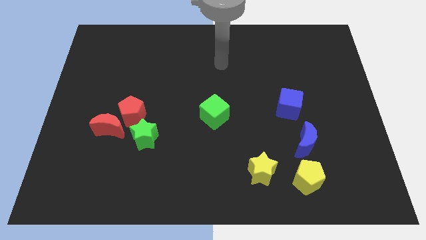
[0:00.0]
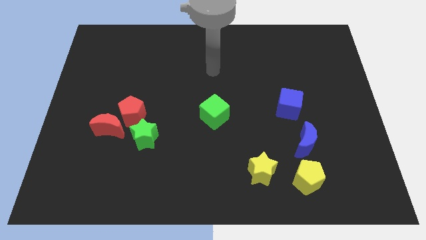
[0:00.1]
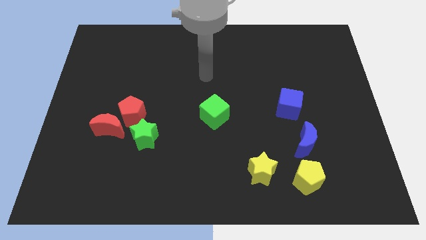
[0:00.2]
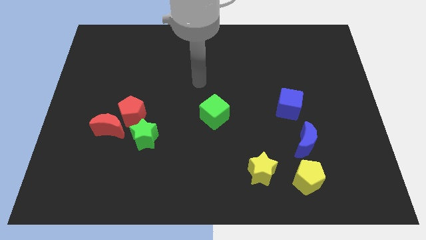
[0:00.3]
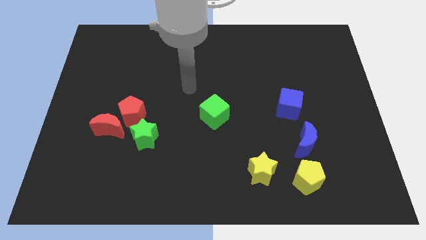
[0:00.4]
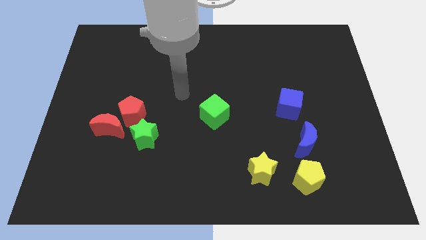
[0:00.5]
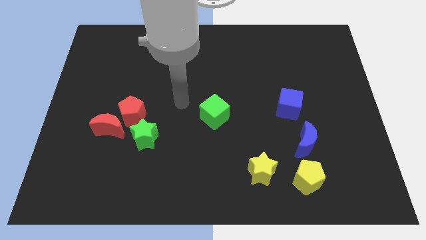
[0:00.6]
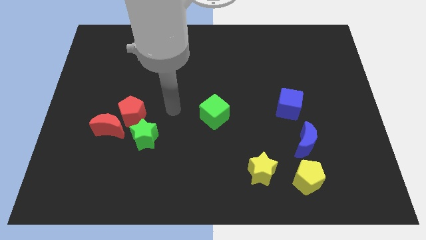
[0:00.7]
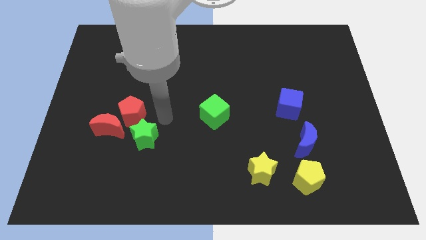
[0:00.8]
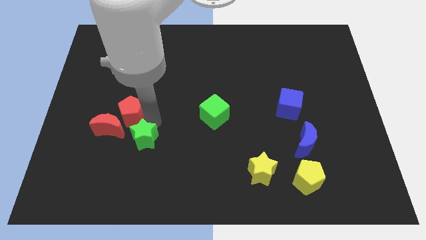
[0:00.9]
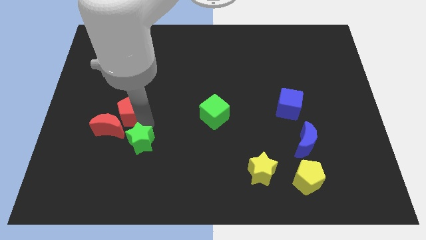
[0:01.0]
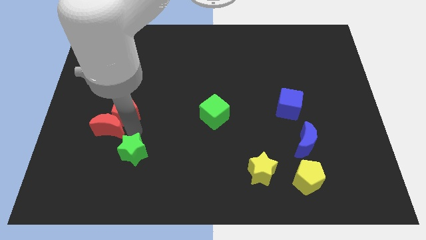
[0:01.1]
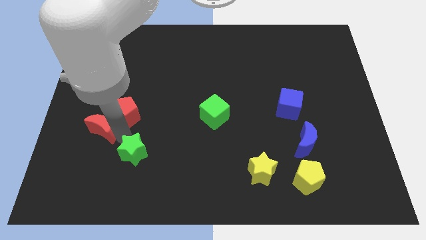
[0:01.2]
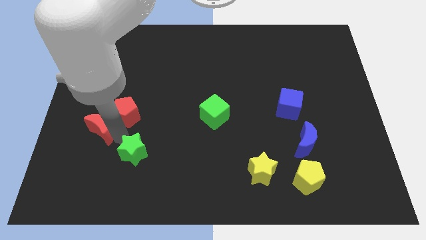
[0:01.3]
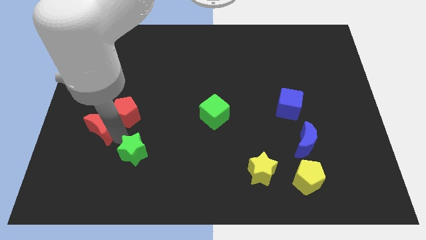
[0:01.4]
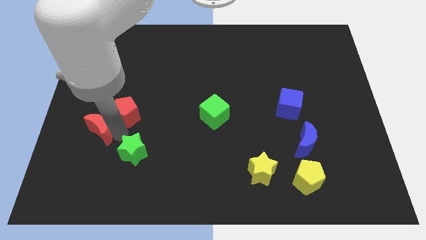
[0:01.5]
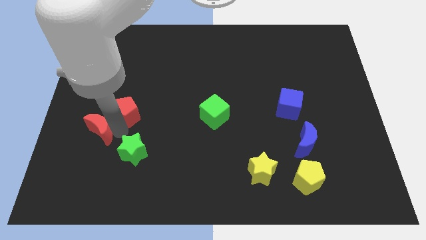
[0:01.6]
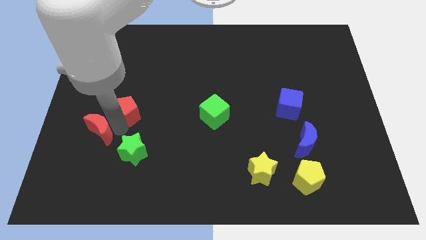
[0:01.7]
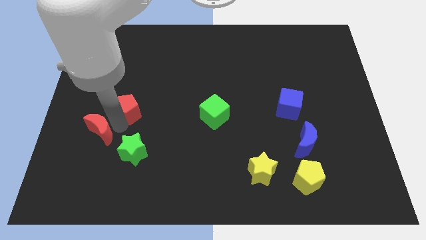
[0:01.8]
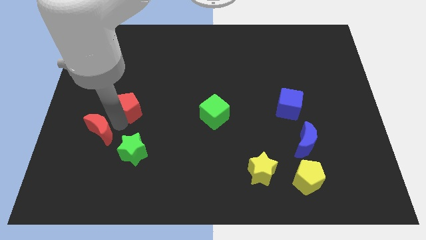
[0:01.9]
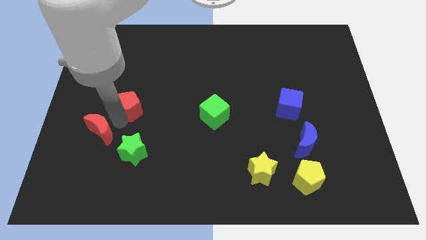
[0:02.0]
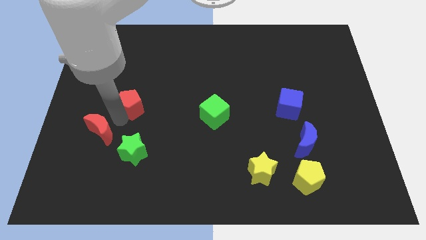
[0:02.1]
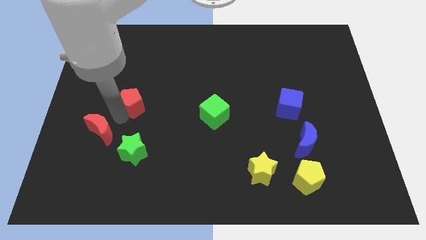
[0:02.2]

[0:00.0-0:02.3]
pull the red pentagon apart from the red moon and green star

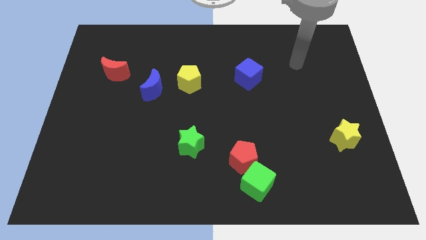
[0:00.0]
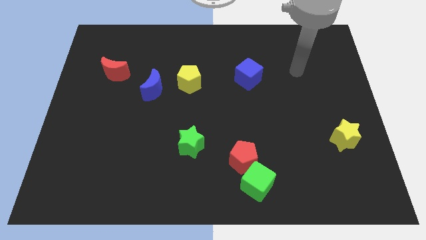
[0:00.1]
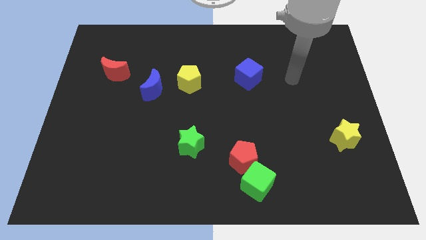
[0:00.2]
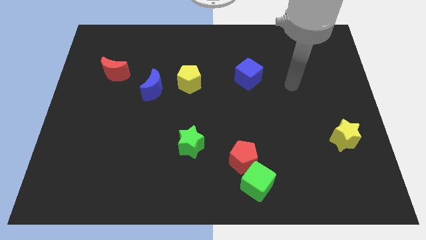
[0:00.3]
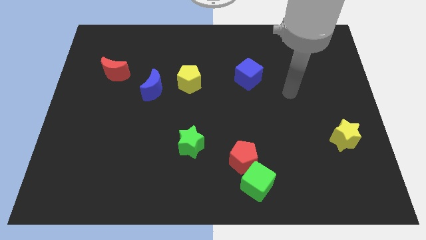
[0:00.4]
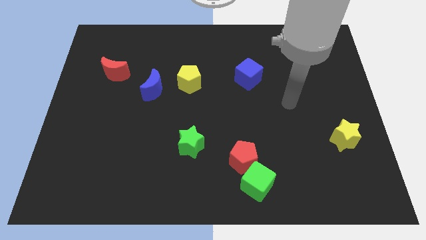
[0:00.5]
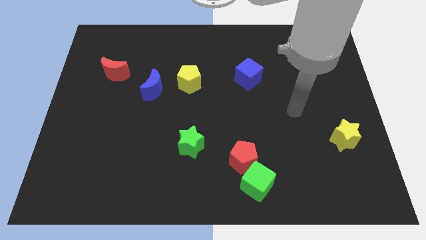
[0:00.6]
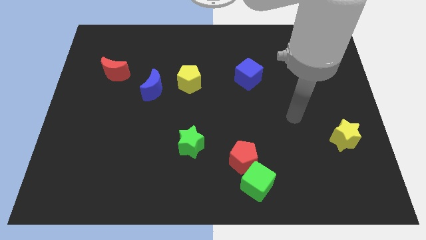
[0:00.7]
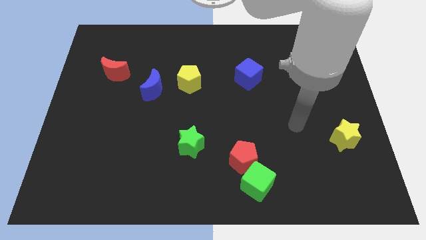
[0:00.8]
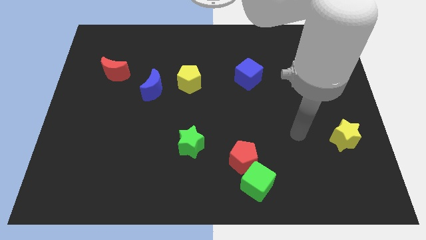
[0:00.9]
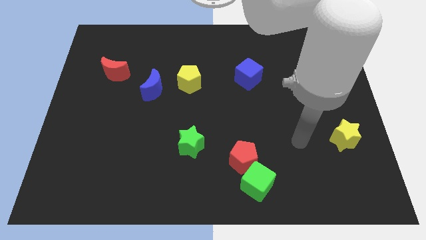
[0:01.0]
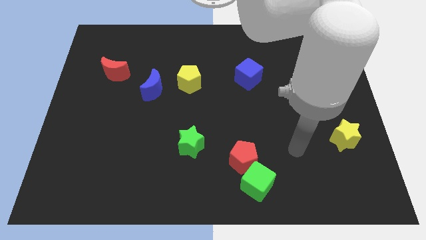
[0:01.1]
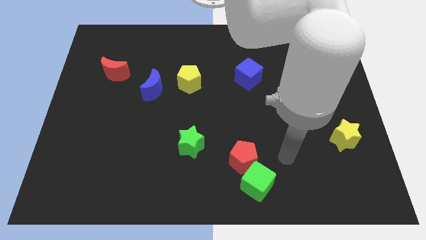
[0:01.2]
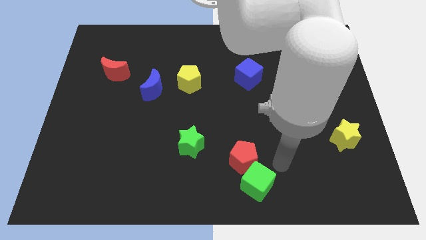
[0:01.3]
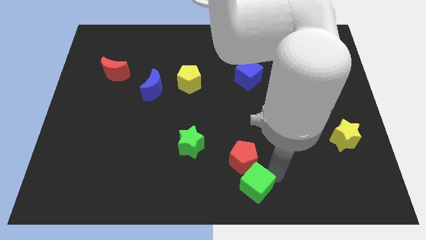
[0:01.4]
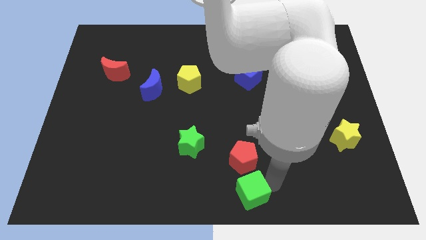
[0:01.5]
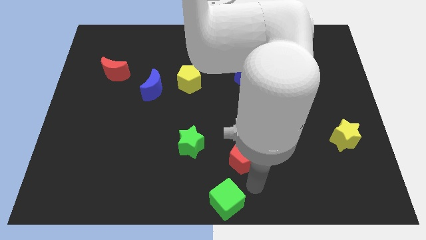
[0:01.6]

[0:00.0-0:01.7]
pull the red pentagon apart from the green cube

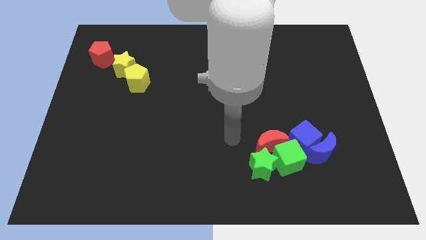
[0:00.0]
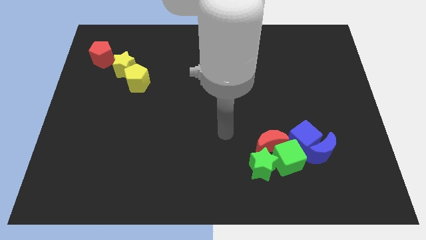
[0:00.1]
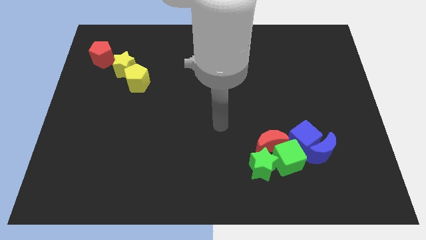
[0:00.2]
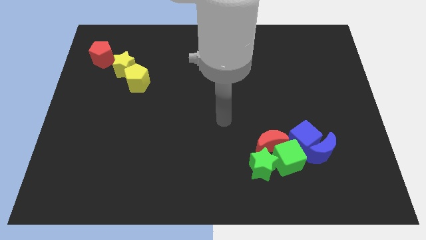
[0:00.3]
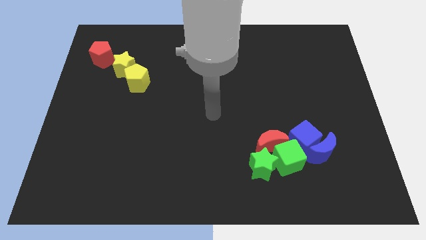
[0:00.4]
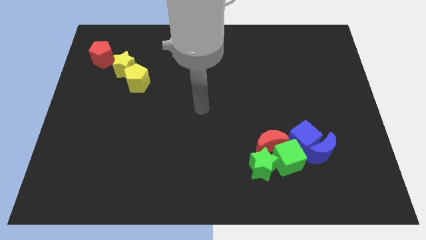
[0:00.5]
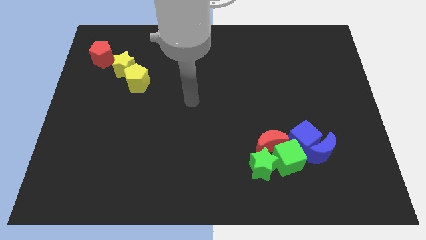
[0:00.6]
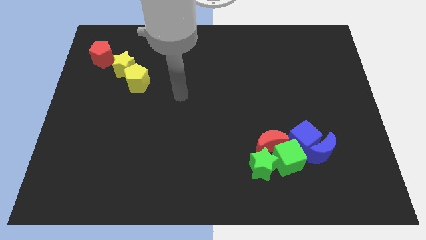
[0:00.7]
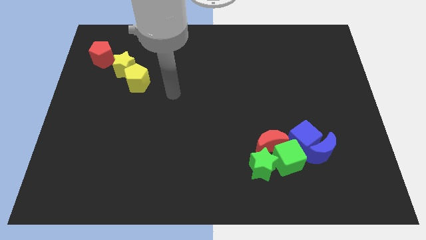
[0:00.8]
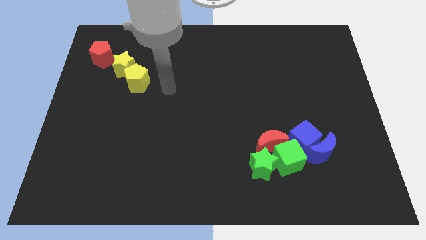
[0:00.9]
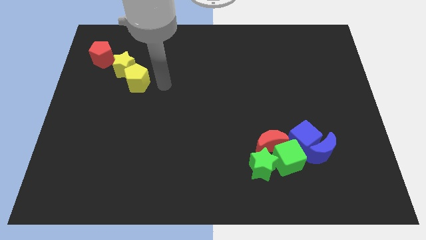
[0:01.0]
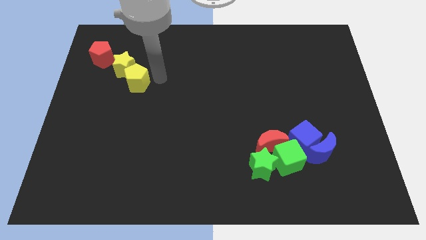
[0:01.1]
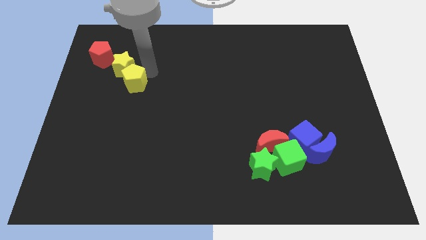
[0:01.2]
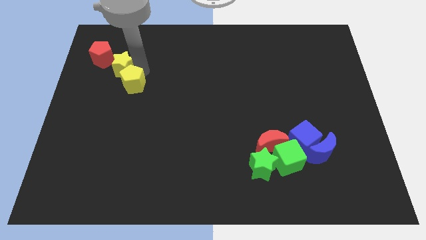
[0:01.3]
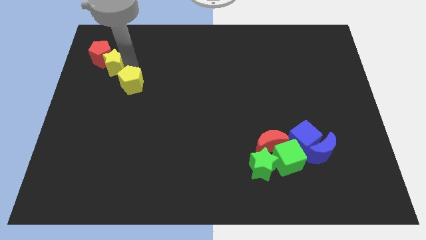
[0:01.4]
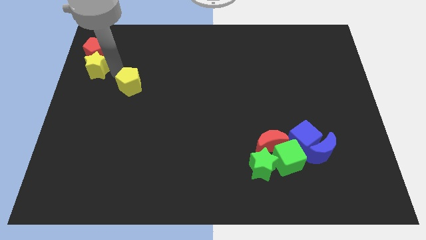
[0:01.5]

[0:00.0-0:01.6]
move the yellow pentagon away from the yellow star

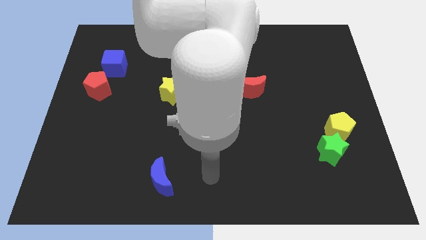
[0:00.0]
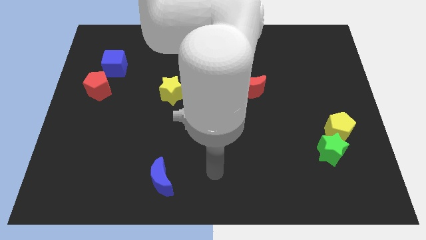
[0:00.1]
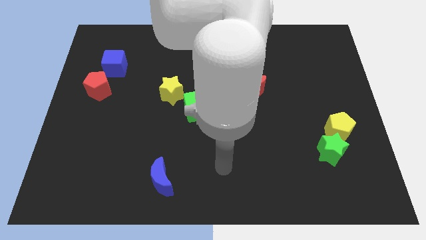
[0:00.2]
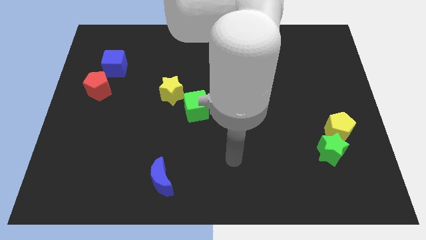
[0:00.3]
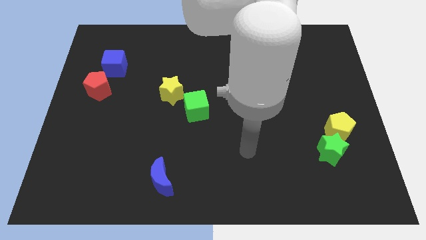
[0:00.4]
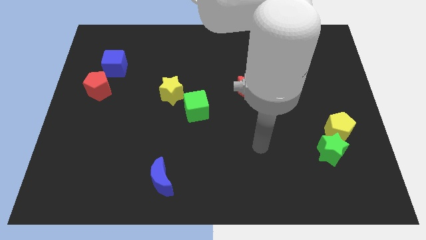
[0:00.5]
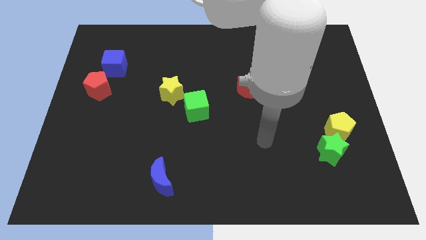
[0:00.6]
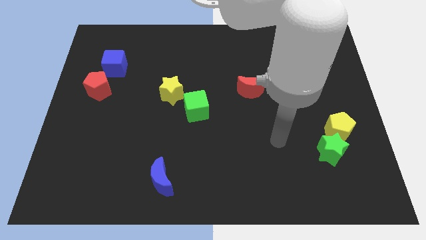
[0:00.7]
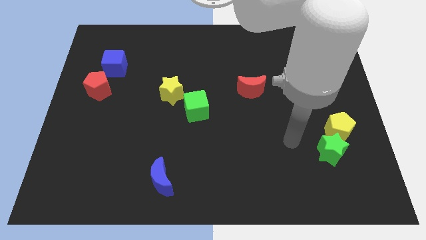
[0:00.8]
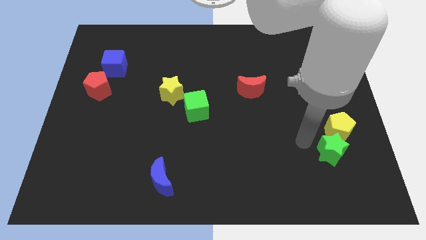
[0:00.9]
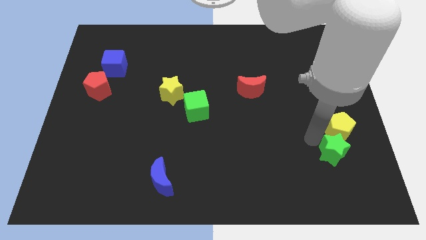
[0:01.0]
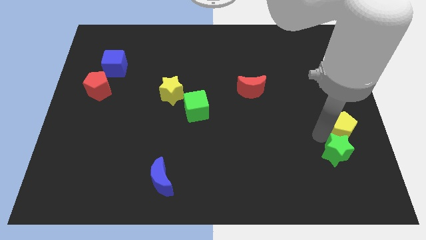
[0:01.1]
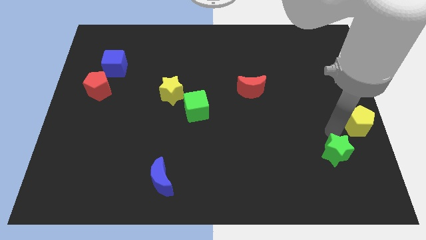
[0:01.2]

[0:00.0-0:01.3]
pull the green star apart from the yellow pentagon

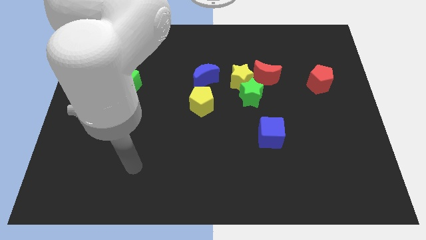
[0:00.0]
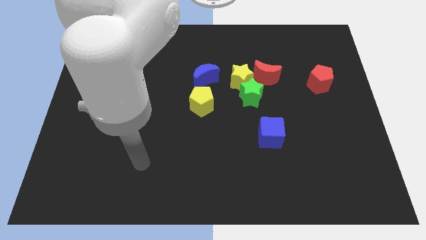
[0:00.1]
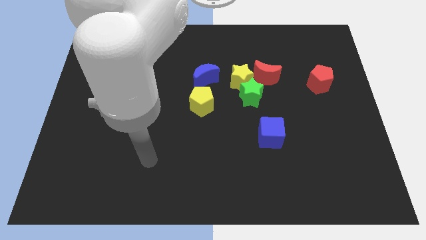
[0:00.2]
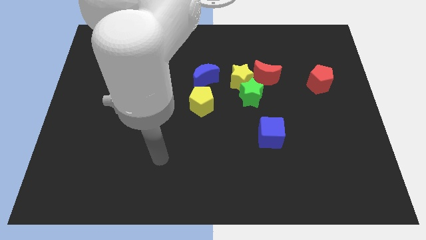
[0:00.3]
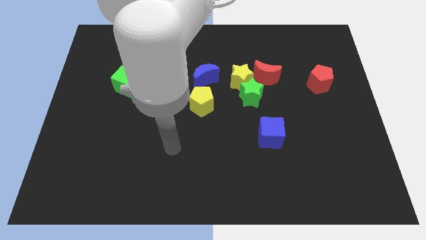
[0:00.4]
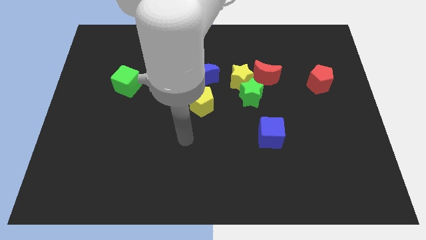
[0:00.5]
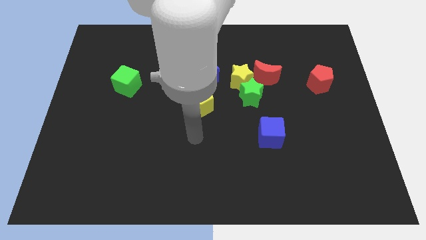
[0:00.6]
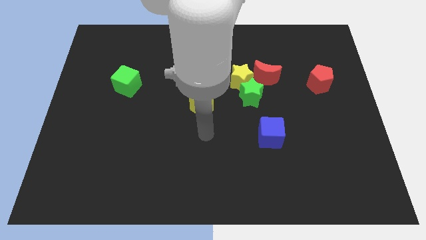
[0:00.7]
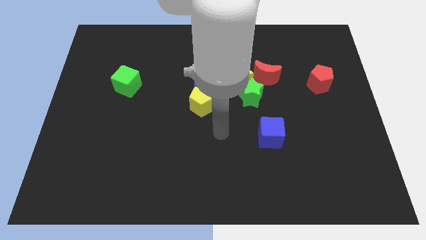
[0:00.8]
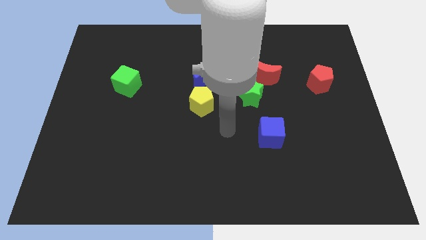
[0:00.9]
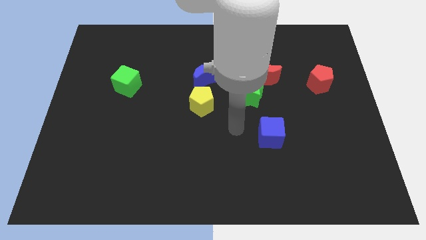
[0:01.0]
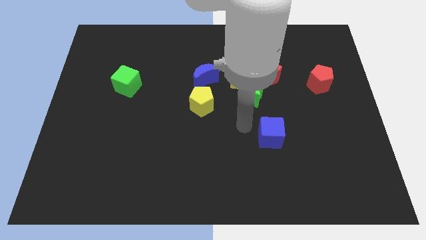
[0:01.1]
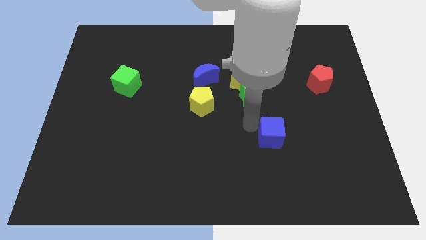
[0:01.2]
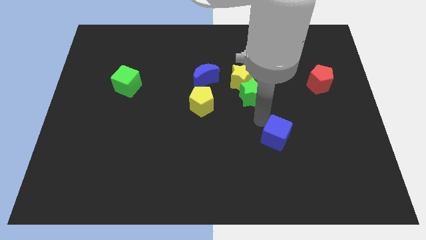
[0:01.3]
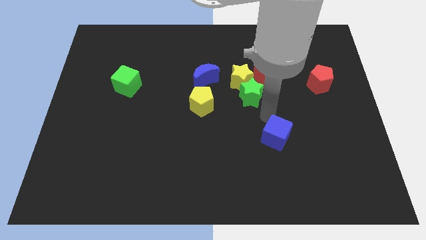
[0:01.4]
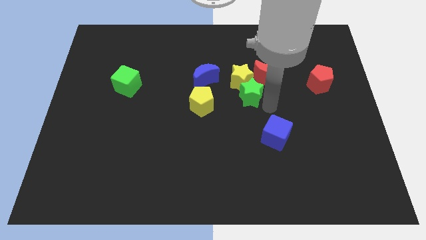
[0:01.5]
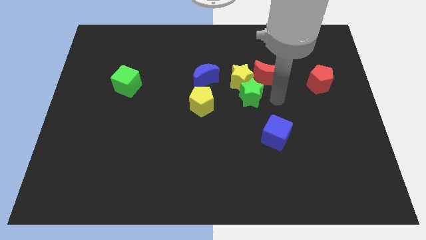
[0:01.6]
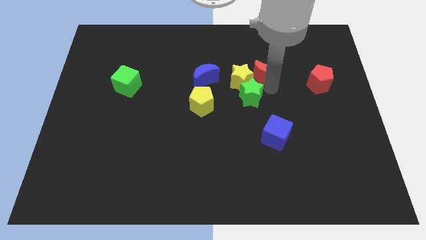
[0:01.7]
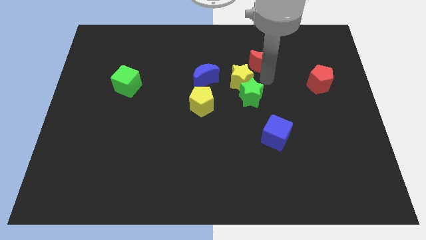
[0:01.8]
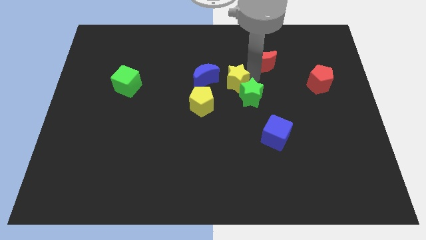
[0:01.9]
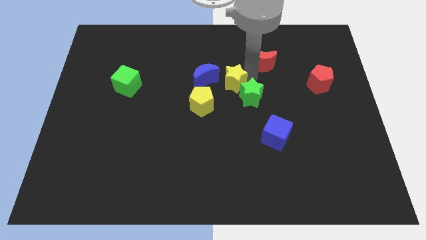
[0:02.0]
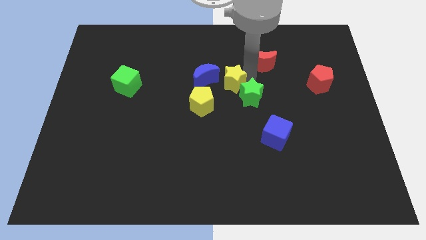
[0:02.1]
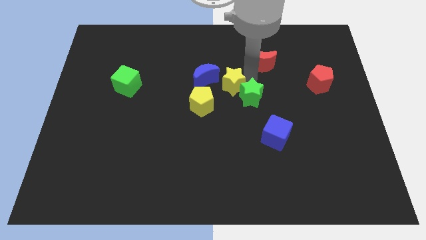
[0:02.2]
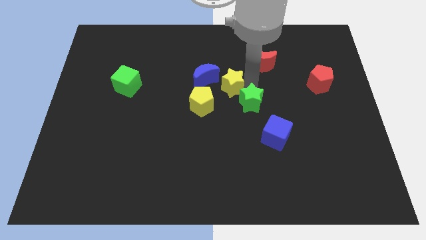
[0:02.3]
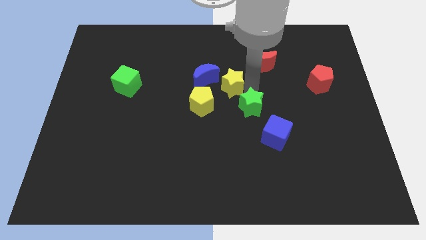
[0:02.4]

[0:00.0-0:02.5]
separate the green star from the yellow star and red moon

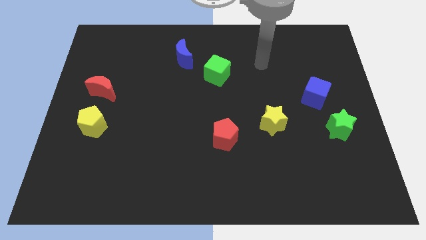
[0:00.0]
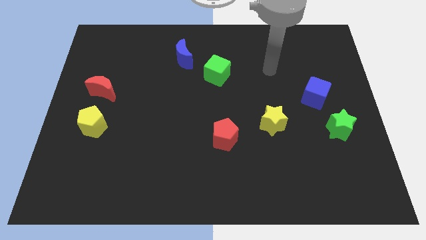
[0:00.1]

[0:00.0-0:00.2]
pull the blue cube apart from the green star
